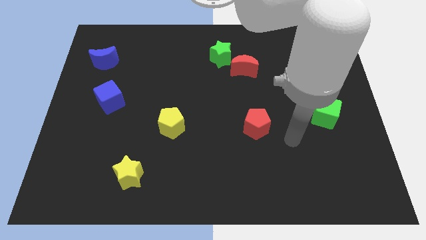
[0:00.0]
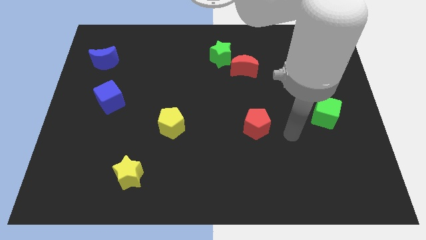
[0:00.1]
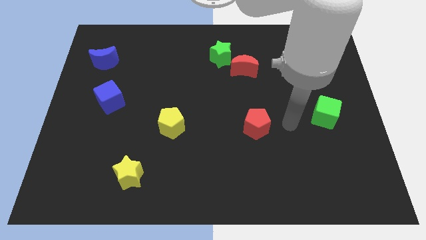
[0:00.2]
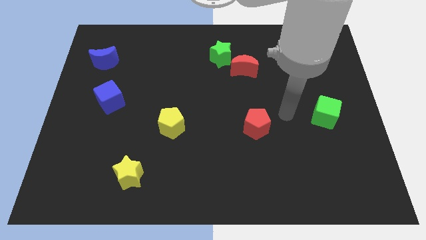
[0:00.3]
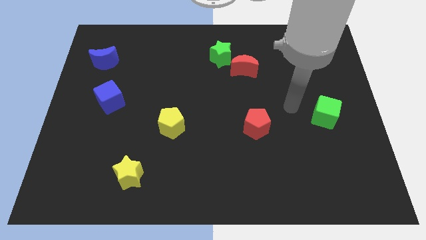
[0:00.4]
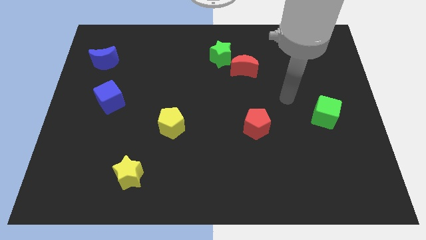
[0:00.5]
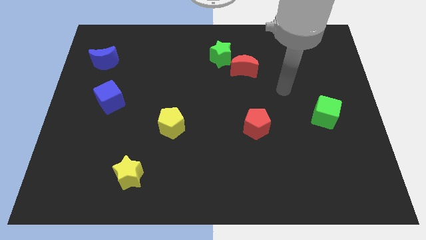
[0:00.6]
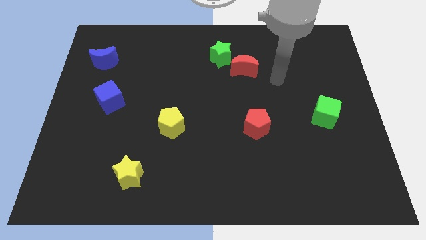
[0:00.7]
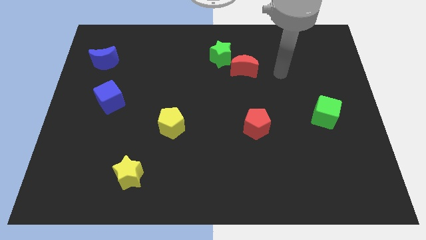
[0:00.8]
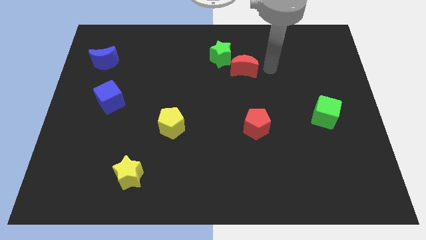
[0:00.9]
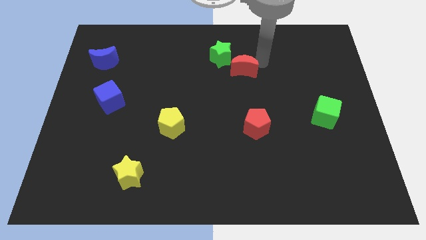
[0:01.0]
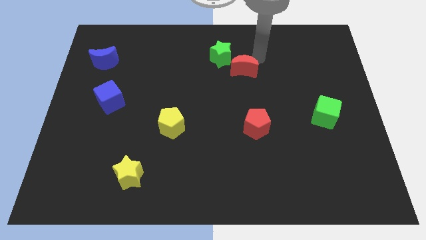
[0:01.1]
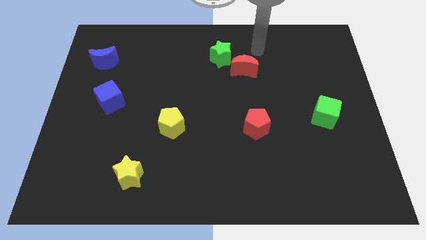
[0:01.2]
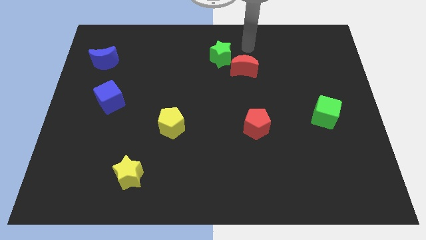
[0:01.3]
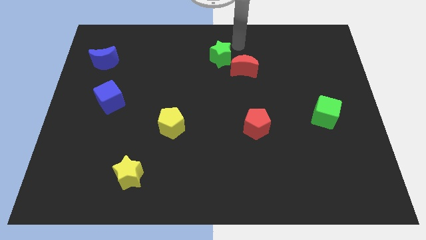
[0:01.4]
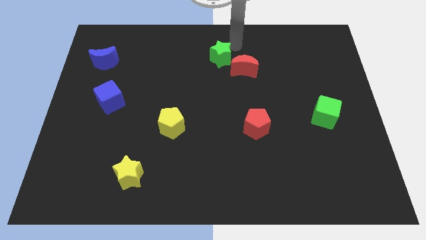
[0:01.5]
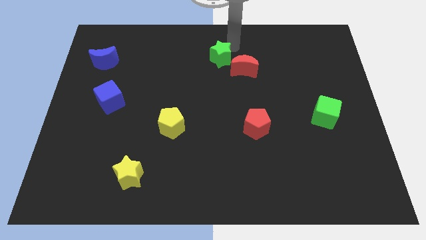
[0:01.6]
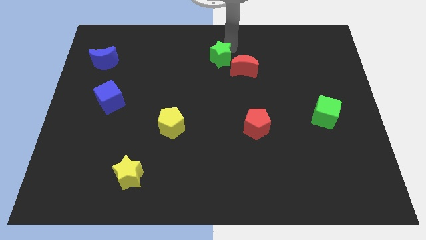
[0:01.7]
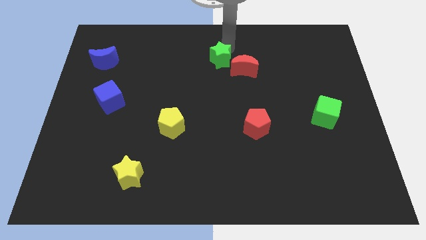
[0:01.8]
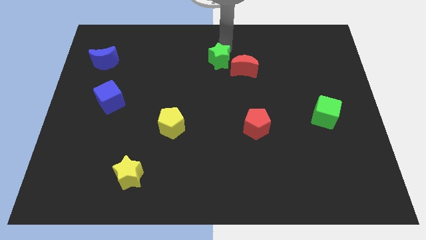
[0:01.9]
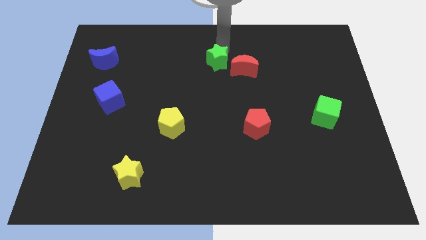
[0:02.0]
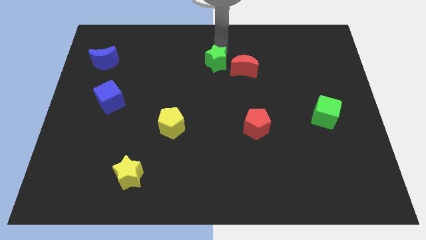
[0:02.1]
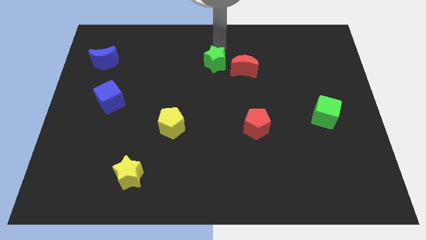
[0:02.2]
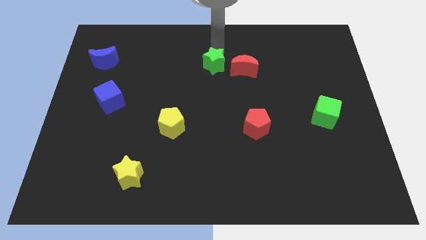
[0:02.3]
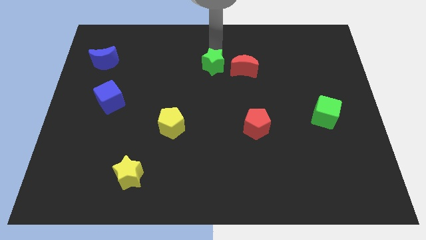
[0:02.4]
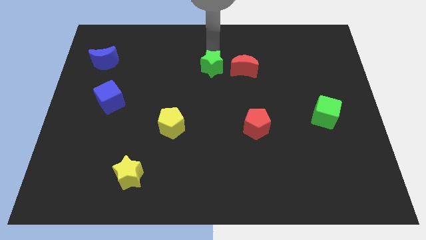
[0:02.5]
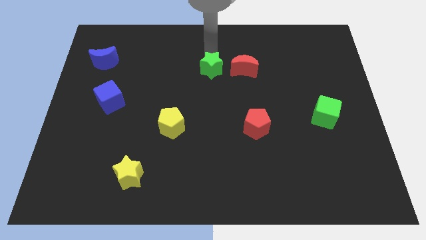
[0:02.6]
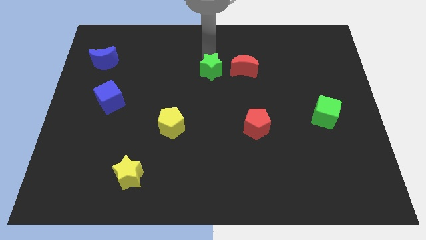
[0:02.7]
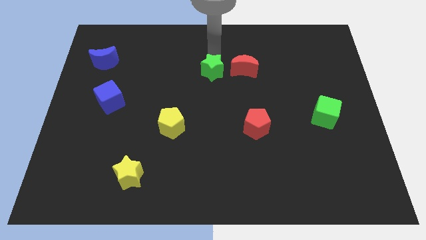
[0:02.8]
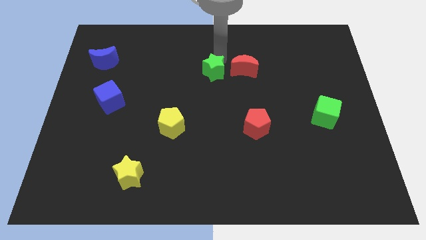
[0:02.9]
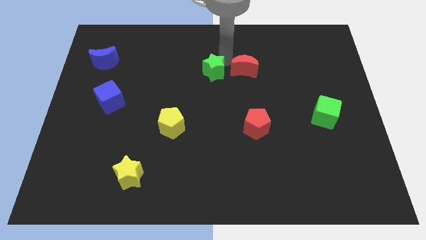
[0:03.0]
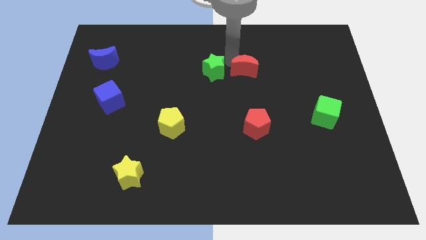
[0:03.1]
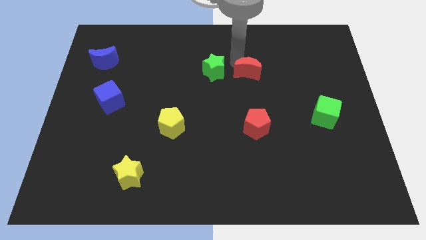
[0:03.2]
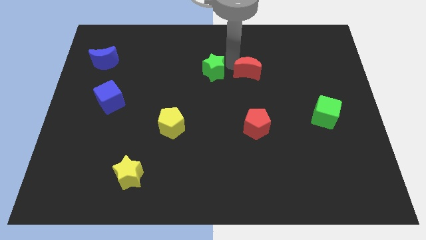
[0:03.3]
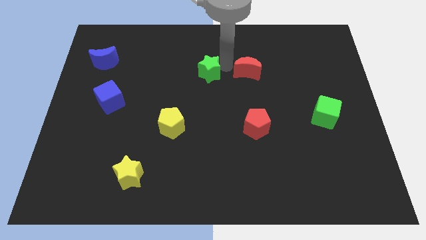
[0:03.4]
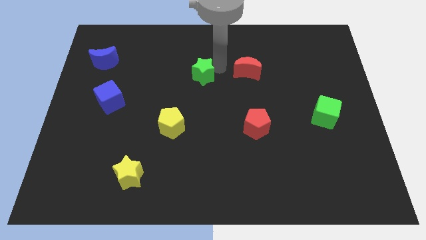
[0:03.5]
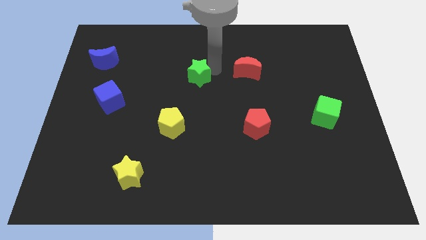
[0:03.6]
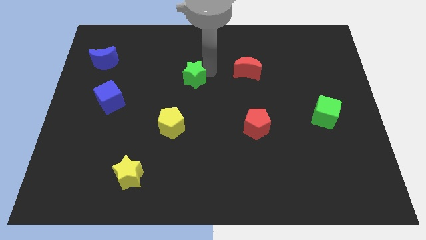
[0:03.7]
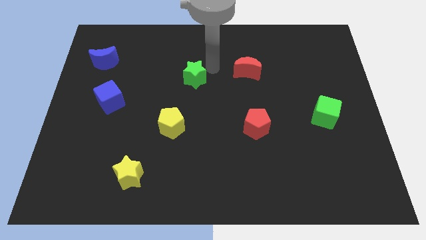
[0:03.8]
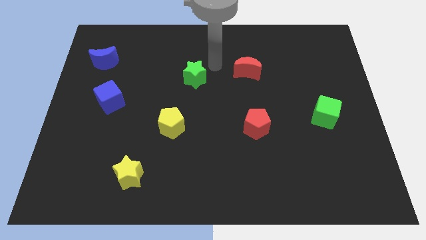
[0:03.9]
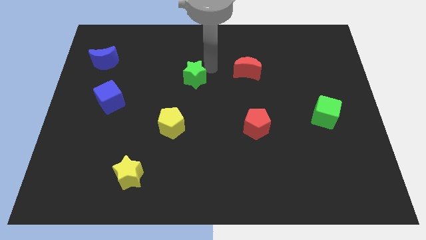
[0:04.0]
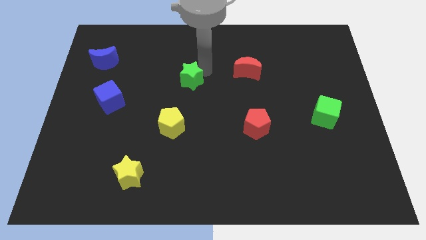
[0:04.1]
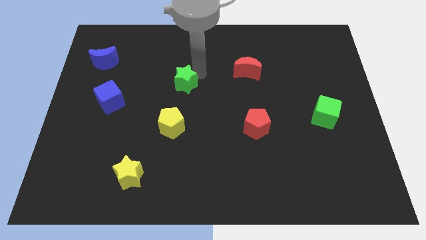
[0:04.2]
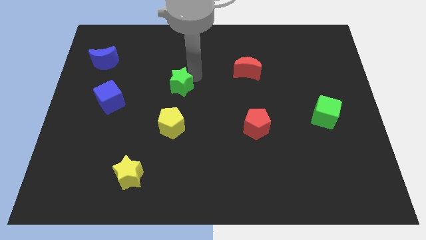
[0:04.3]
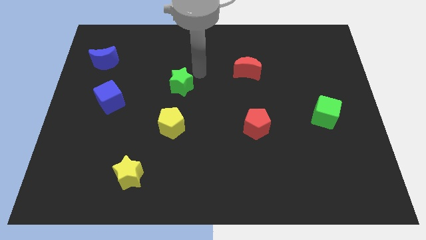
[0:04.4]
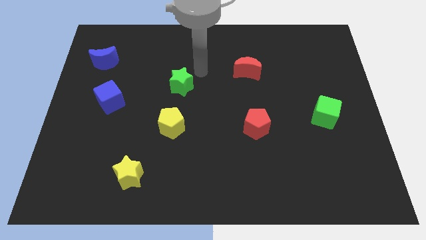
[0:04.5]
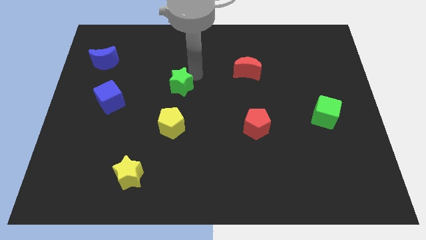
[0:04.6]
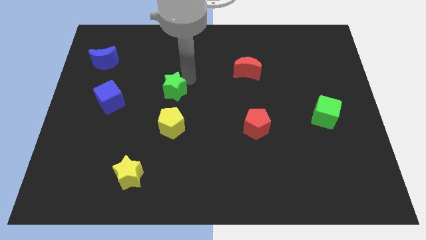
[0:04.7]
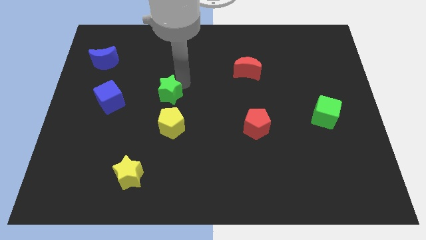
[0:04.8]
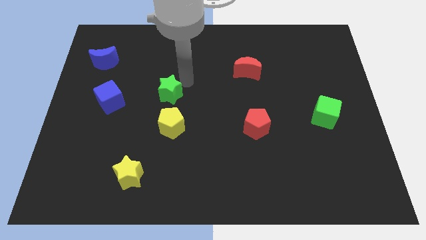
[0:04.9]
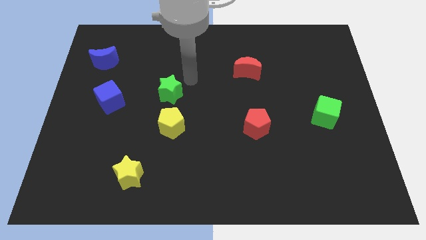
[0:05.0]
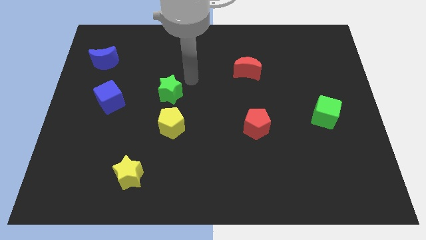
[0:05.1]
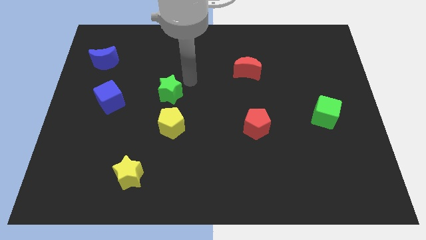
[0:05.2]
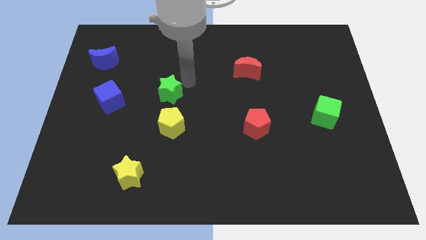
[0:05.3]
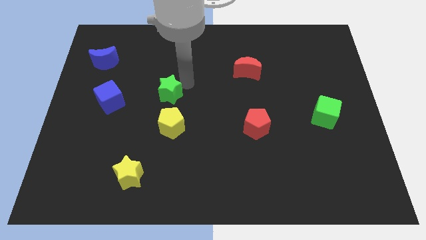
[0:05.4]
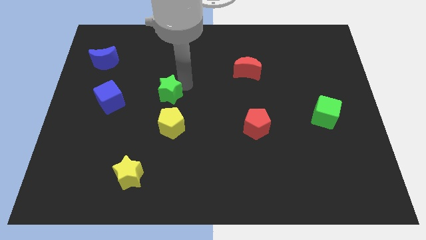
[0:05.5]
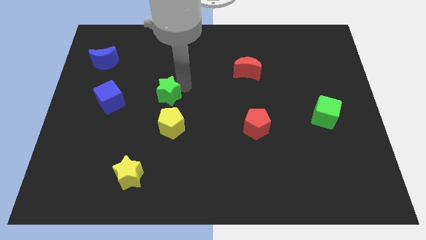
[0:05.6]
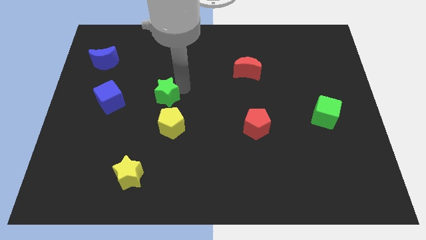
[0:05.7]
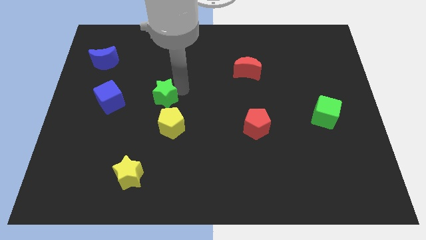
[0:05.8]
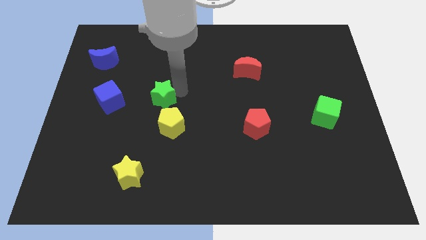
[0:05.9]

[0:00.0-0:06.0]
move the green star diagonally down and to the left

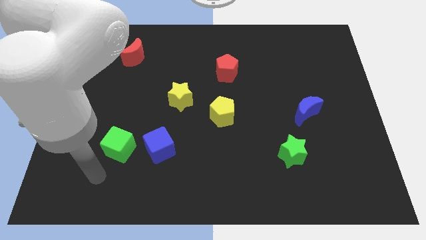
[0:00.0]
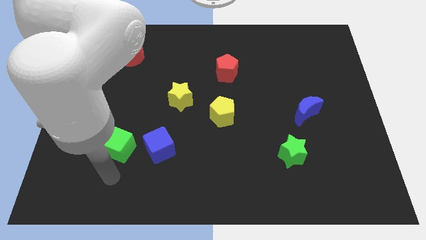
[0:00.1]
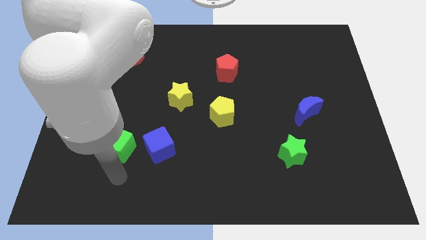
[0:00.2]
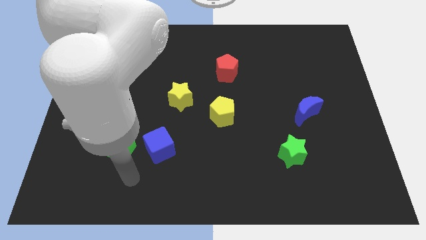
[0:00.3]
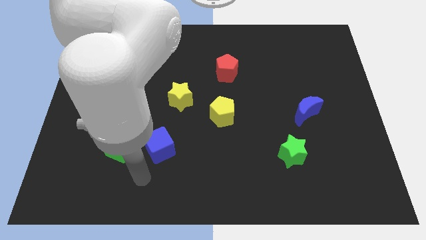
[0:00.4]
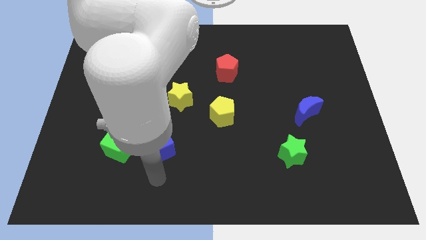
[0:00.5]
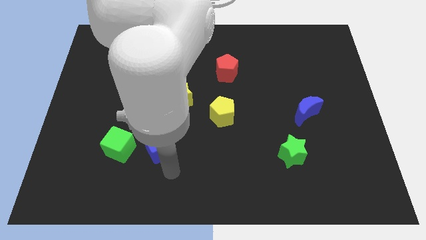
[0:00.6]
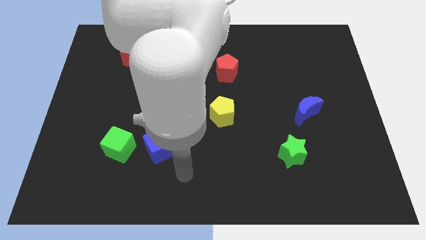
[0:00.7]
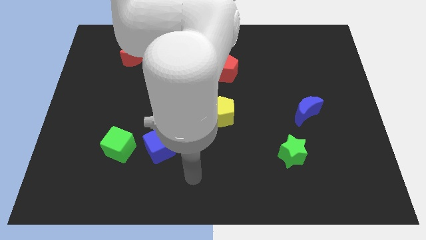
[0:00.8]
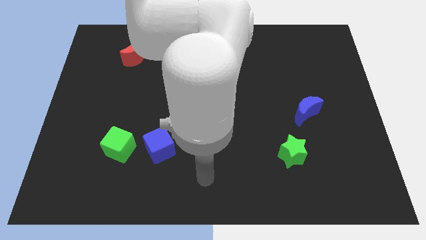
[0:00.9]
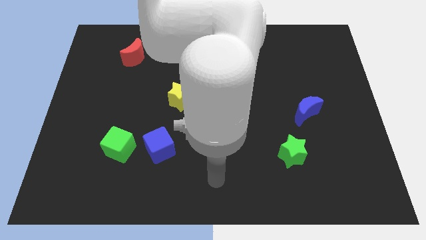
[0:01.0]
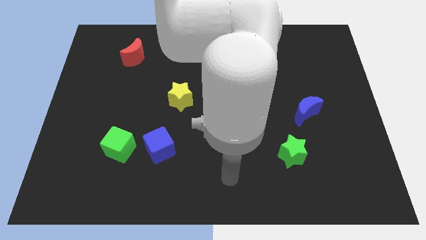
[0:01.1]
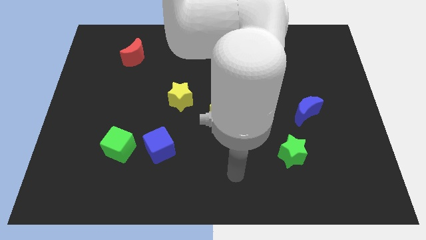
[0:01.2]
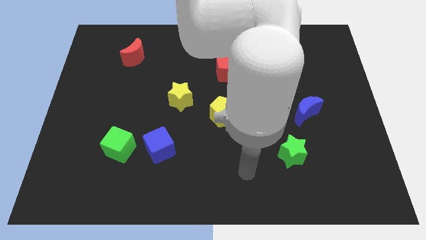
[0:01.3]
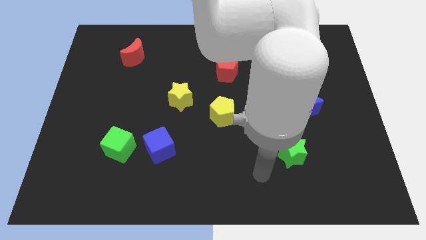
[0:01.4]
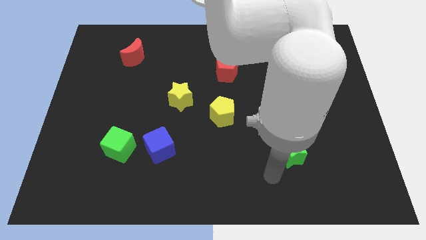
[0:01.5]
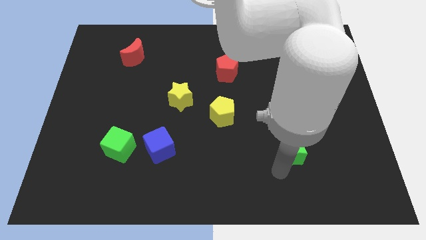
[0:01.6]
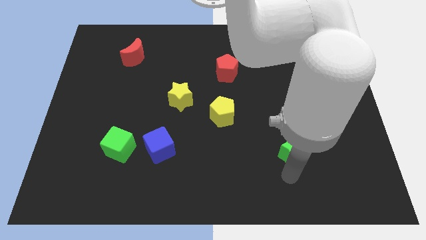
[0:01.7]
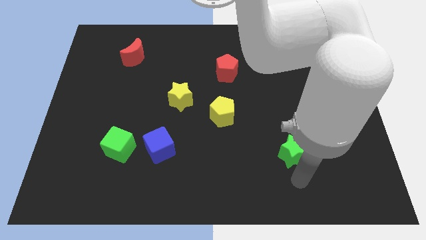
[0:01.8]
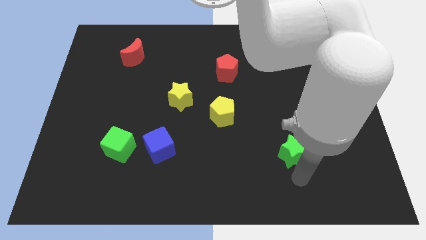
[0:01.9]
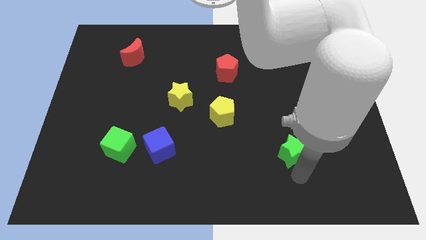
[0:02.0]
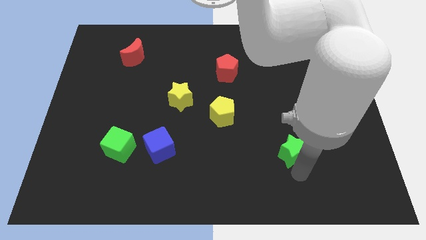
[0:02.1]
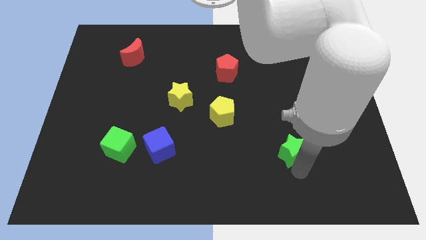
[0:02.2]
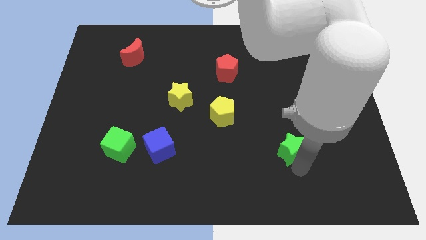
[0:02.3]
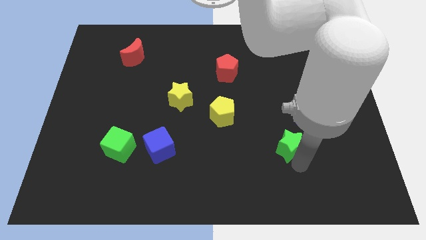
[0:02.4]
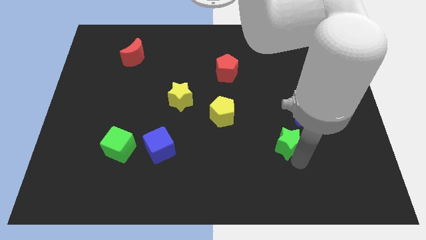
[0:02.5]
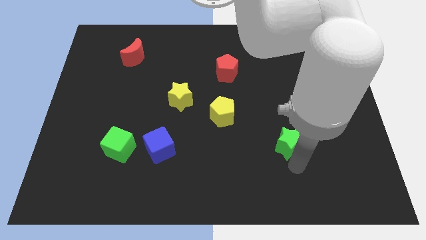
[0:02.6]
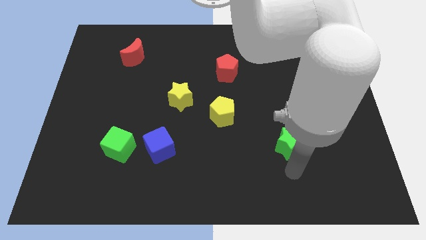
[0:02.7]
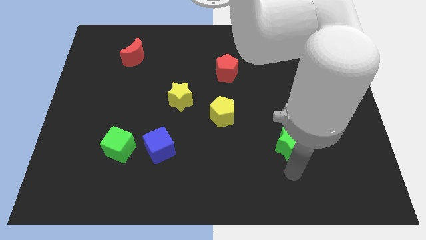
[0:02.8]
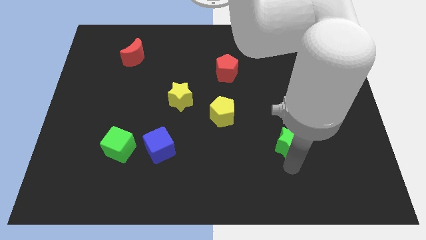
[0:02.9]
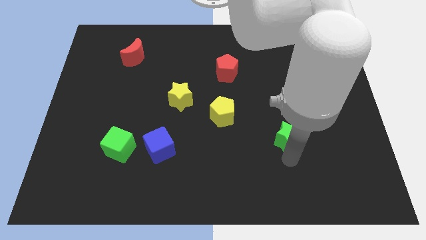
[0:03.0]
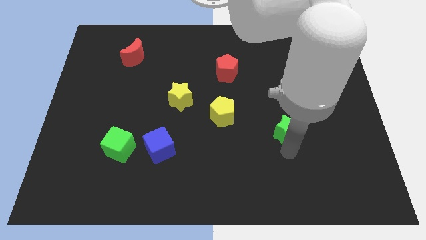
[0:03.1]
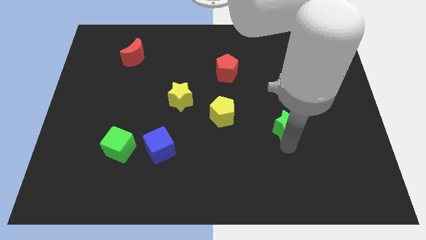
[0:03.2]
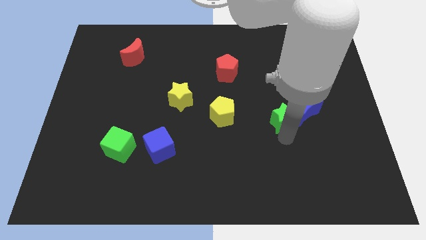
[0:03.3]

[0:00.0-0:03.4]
slide the green star up a bit
